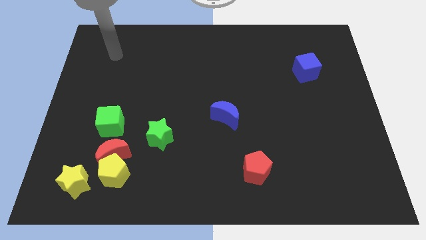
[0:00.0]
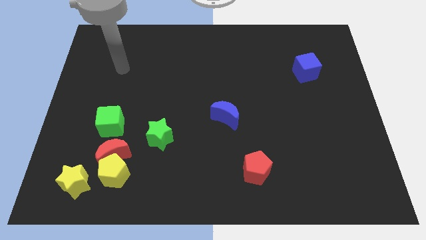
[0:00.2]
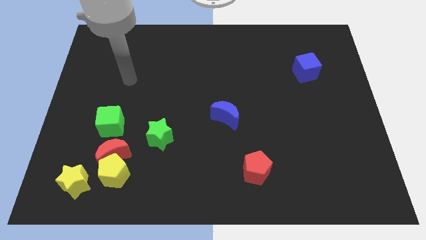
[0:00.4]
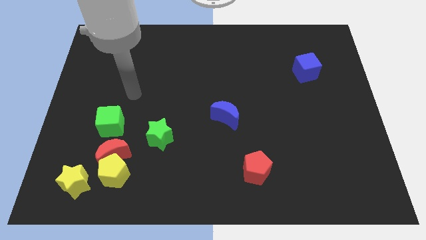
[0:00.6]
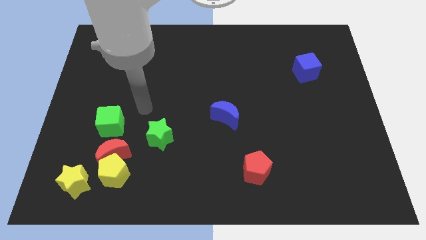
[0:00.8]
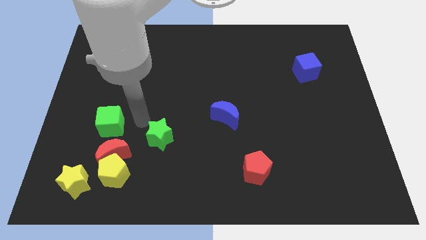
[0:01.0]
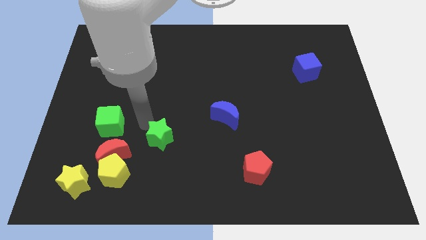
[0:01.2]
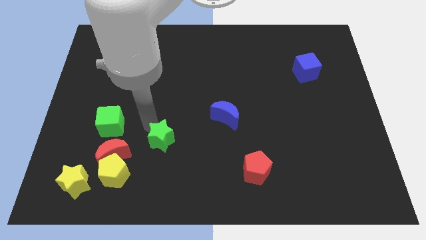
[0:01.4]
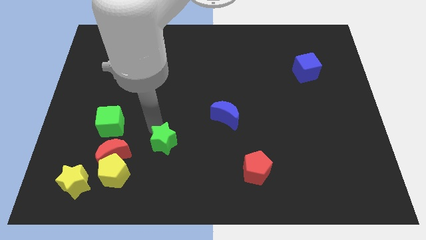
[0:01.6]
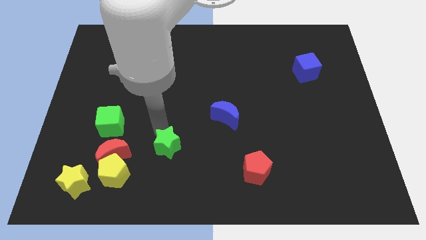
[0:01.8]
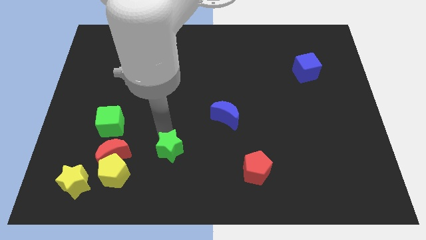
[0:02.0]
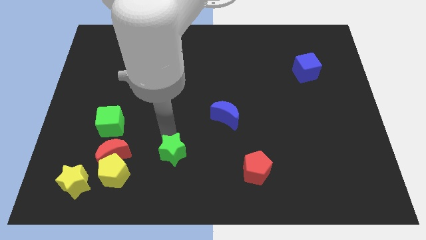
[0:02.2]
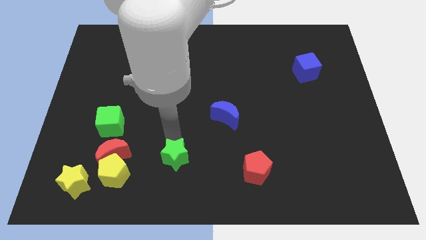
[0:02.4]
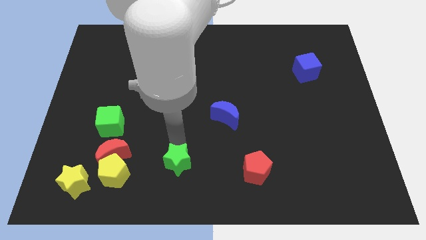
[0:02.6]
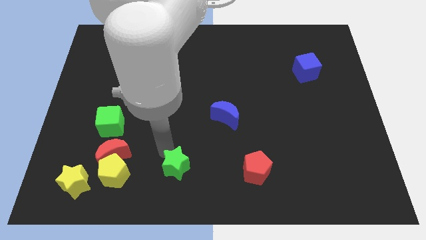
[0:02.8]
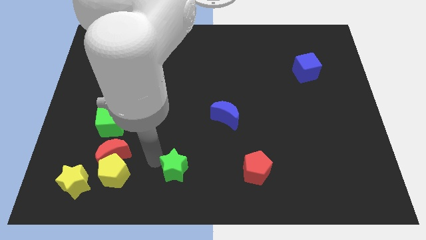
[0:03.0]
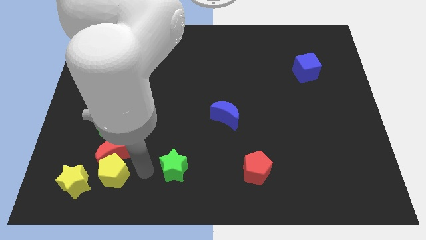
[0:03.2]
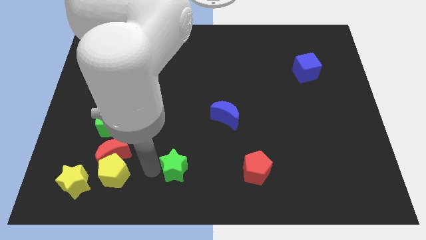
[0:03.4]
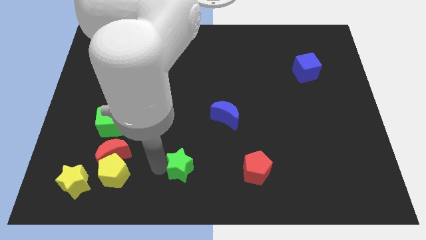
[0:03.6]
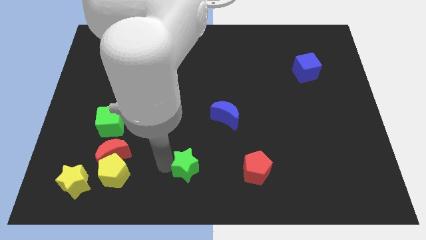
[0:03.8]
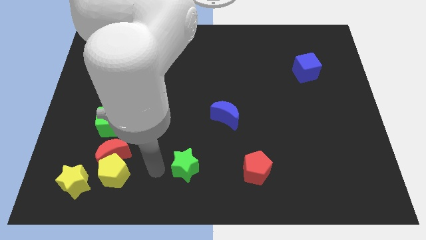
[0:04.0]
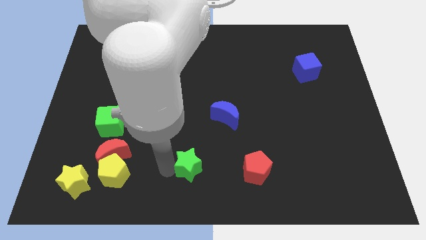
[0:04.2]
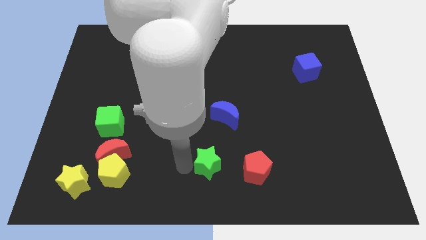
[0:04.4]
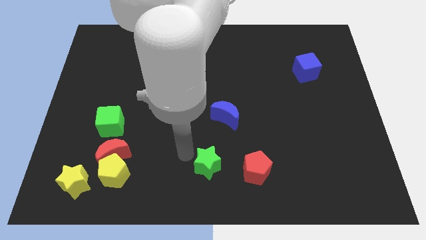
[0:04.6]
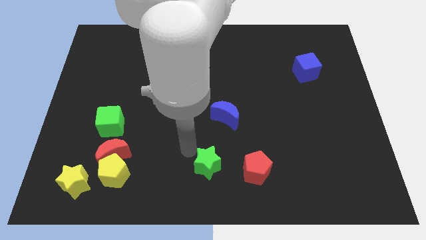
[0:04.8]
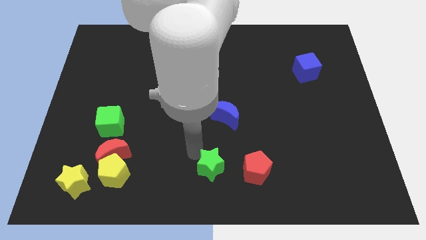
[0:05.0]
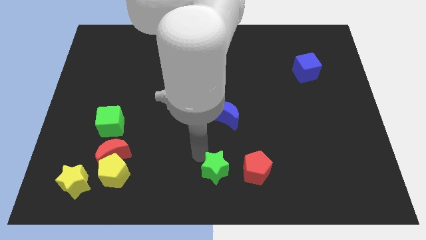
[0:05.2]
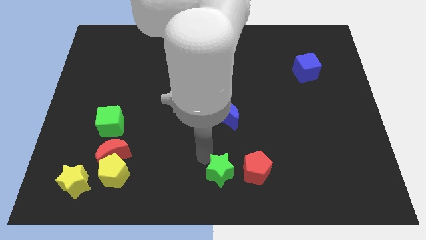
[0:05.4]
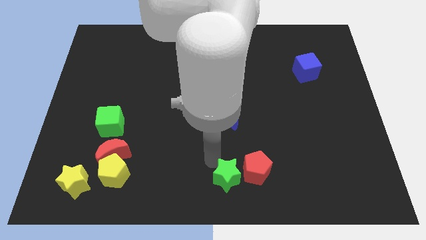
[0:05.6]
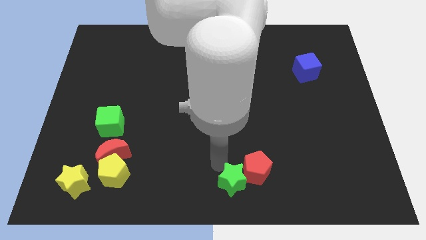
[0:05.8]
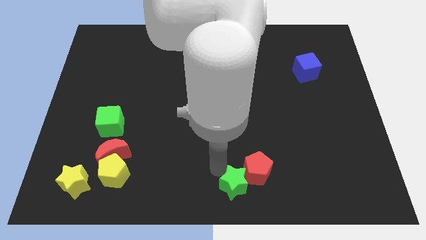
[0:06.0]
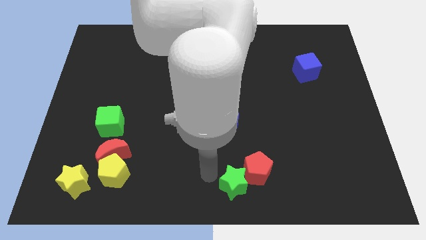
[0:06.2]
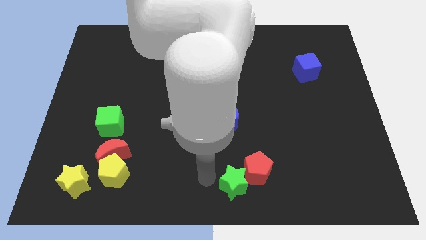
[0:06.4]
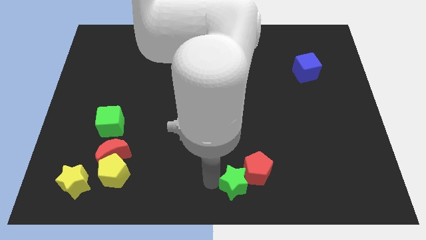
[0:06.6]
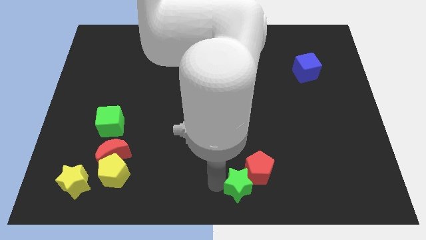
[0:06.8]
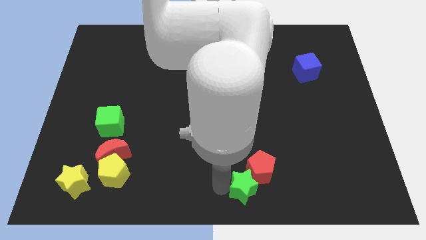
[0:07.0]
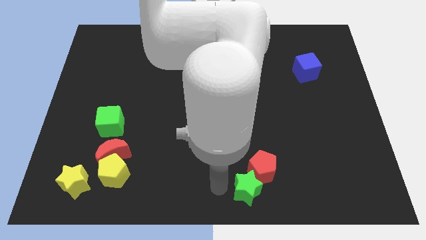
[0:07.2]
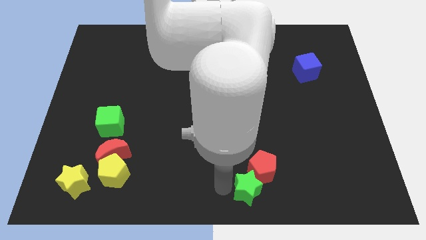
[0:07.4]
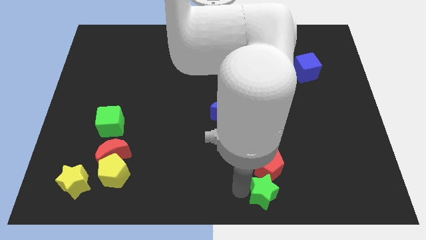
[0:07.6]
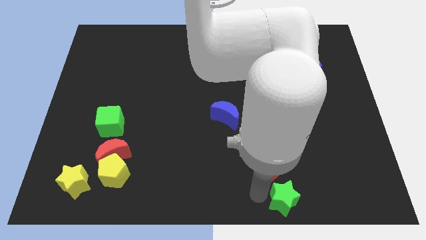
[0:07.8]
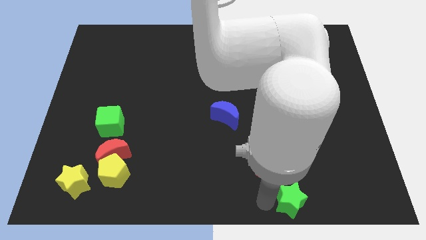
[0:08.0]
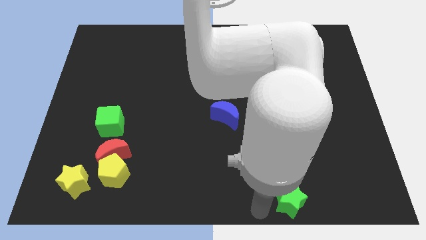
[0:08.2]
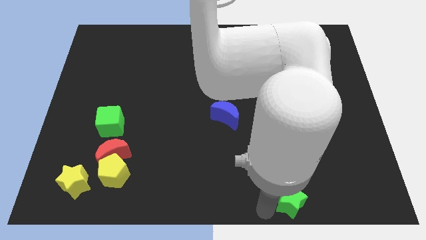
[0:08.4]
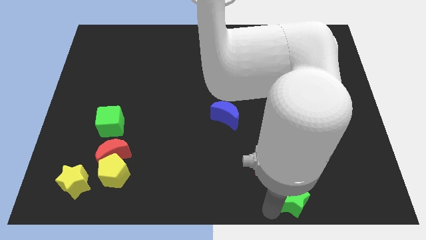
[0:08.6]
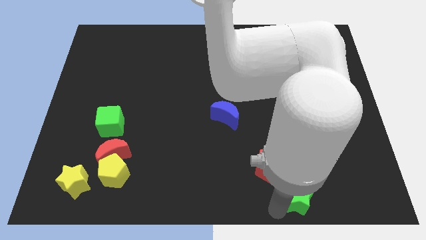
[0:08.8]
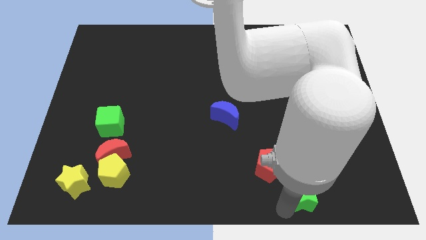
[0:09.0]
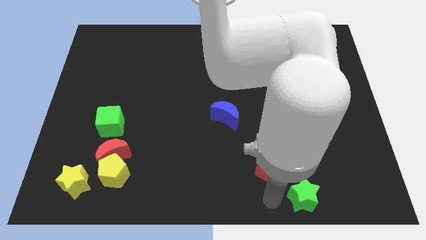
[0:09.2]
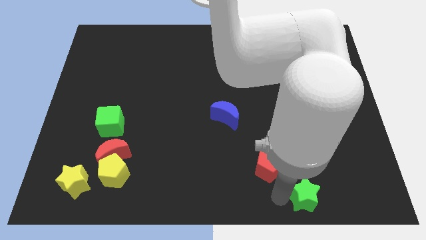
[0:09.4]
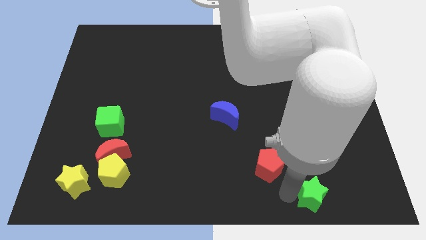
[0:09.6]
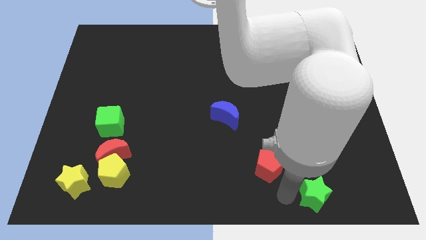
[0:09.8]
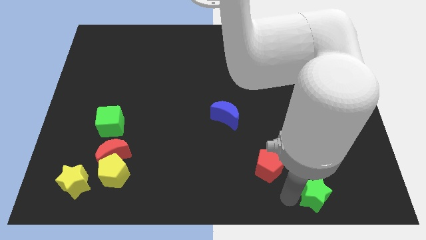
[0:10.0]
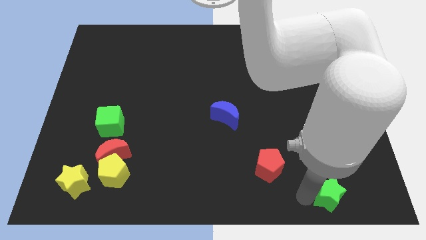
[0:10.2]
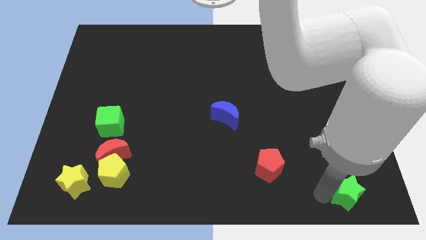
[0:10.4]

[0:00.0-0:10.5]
put the green star to the bottom right
